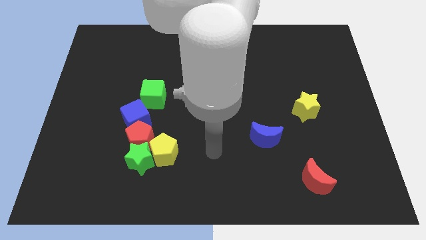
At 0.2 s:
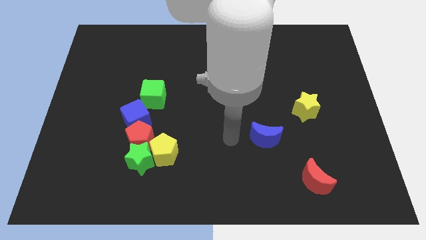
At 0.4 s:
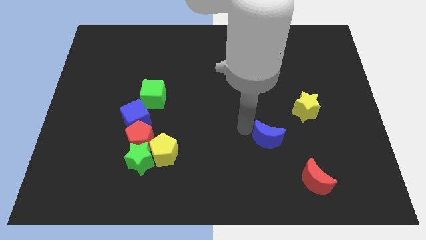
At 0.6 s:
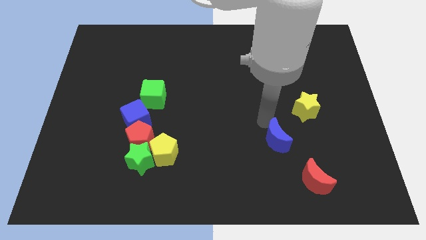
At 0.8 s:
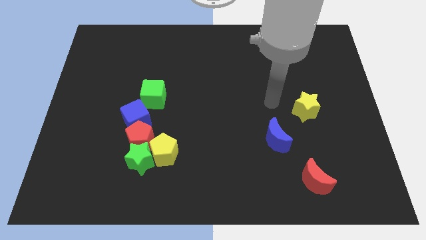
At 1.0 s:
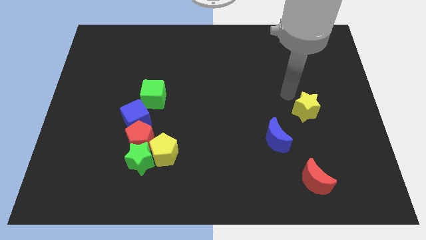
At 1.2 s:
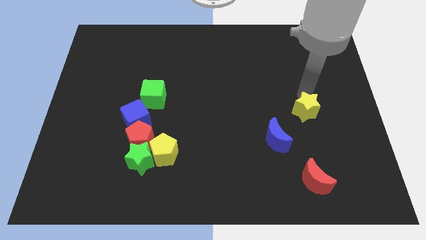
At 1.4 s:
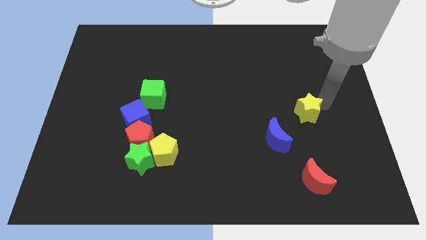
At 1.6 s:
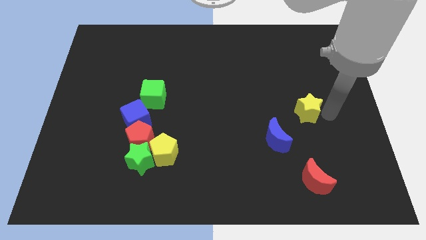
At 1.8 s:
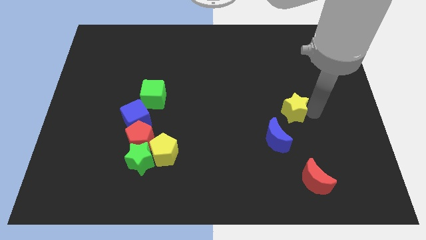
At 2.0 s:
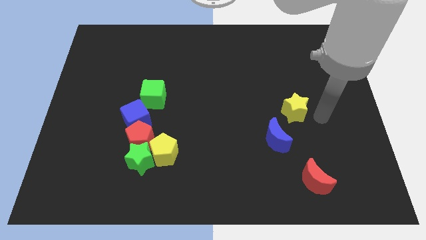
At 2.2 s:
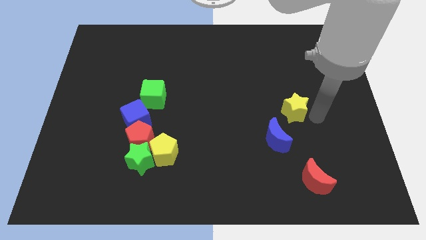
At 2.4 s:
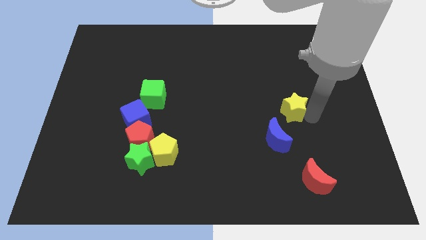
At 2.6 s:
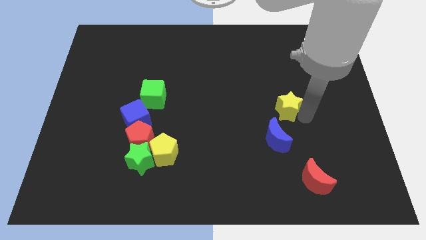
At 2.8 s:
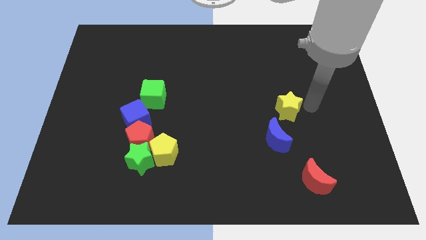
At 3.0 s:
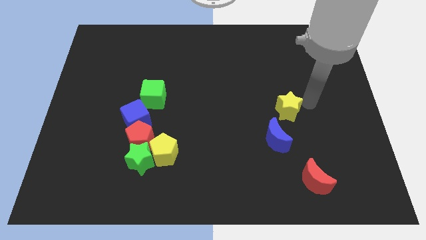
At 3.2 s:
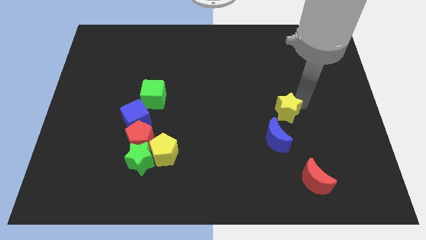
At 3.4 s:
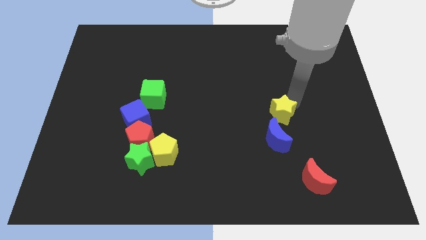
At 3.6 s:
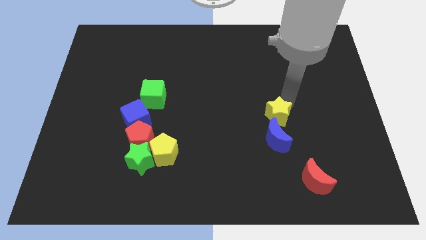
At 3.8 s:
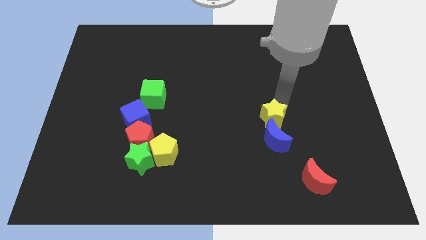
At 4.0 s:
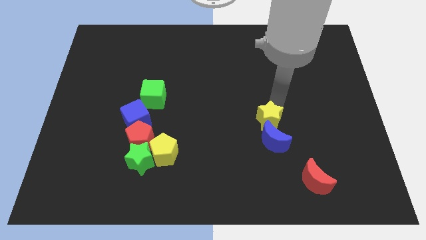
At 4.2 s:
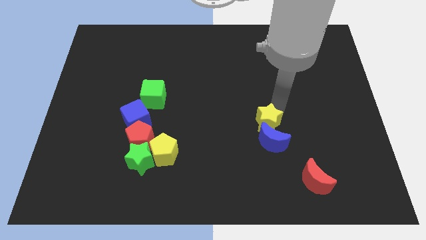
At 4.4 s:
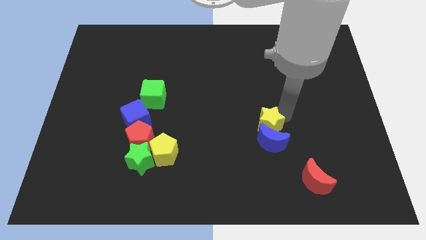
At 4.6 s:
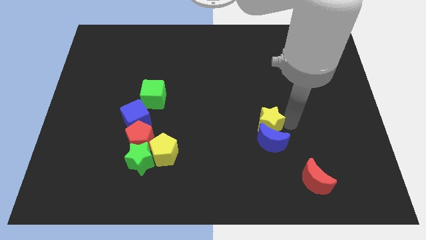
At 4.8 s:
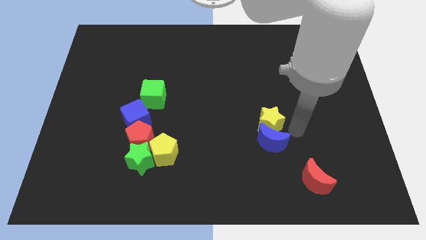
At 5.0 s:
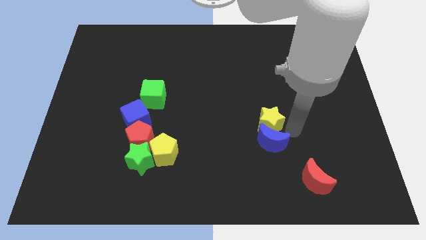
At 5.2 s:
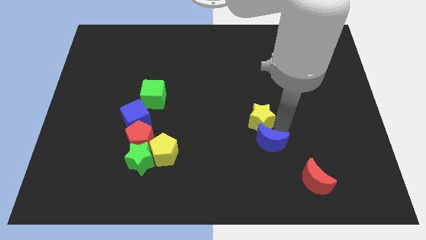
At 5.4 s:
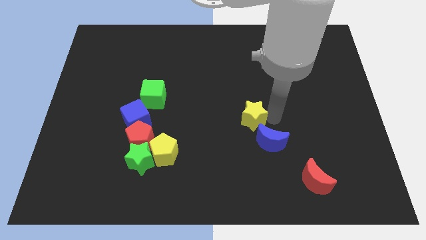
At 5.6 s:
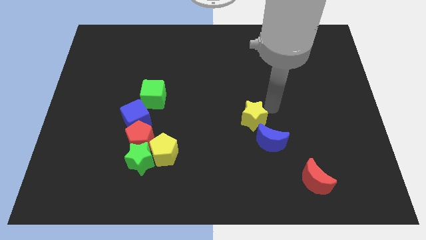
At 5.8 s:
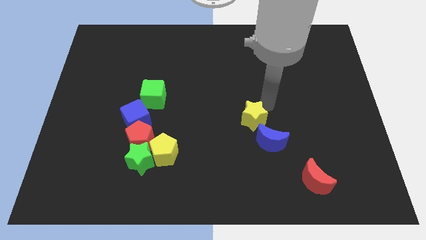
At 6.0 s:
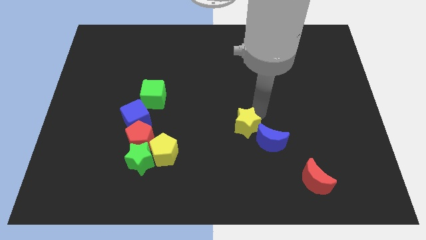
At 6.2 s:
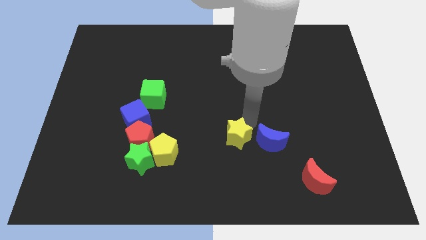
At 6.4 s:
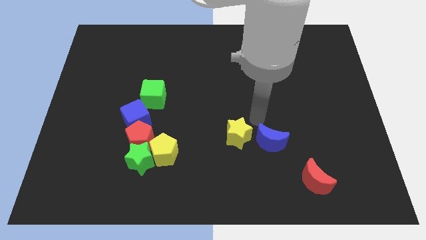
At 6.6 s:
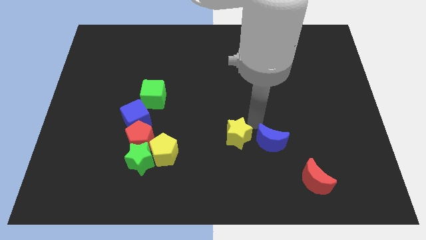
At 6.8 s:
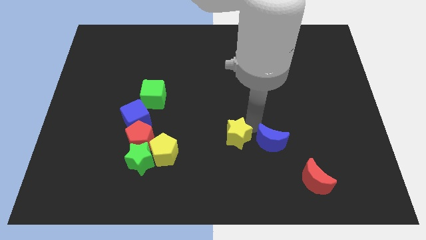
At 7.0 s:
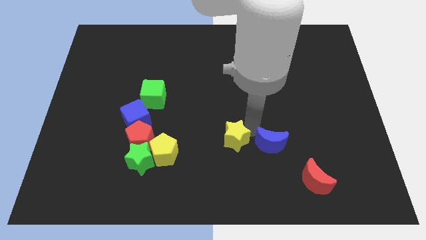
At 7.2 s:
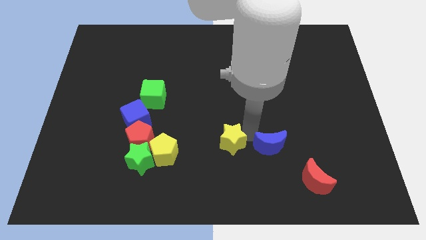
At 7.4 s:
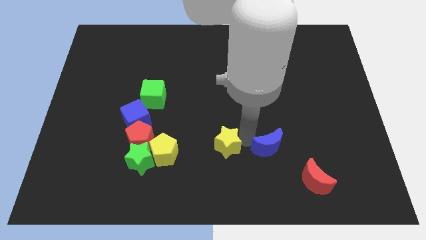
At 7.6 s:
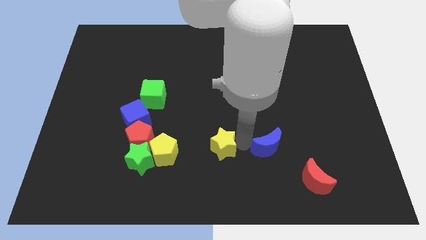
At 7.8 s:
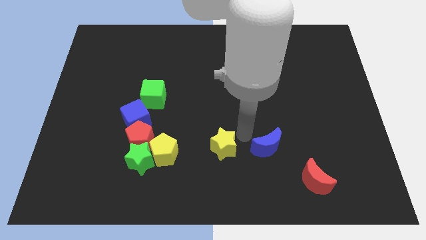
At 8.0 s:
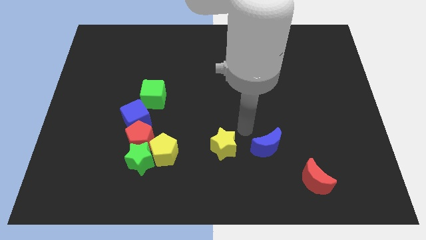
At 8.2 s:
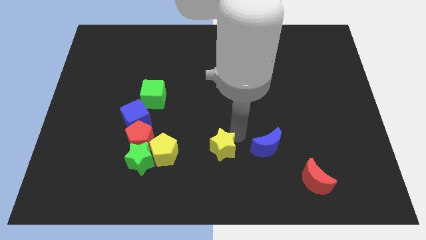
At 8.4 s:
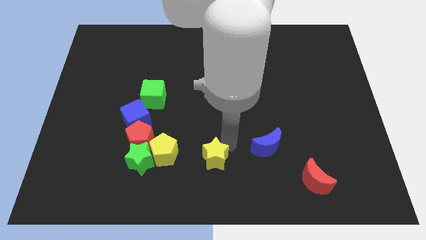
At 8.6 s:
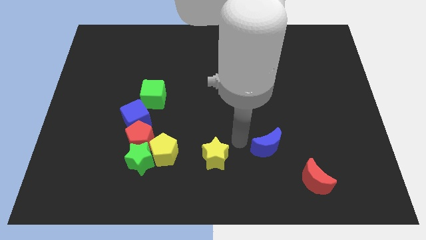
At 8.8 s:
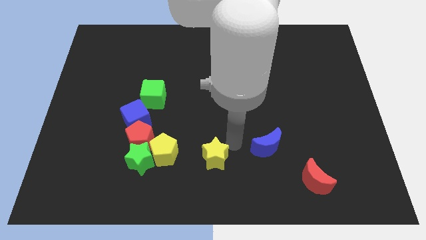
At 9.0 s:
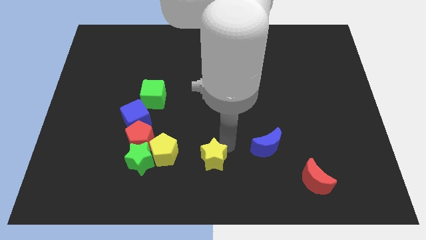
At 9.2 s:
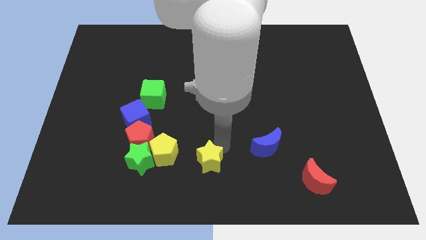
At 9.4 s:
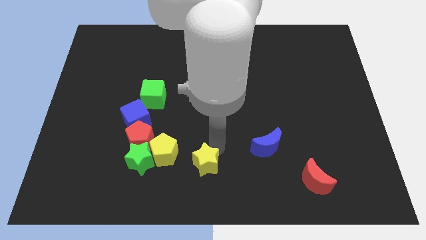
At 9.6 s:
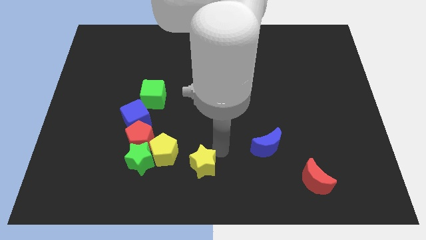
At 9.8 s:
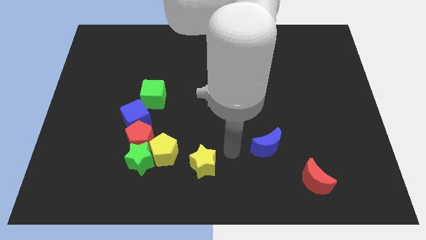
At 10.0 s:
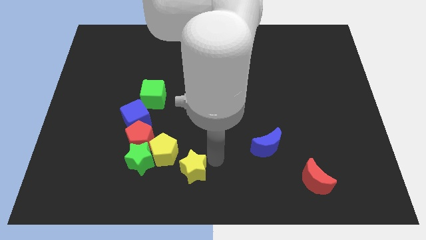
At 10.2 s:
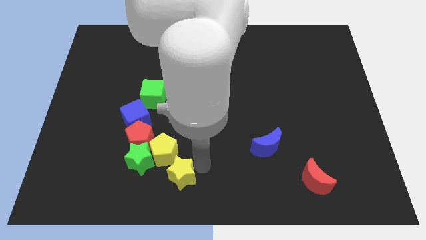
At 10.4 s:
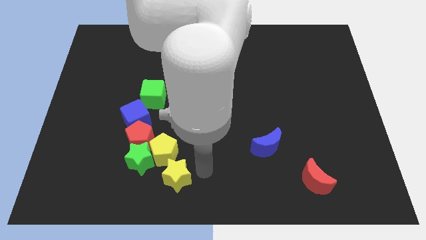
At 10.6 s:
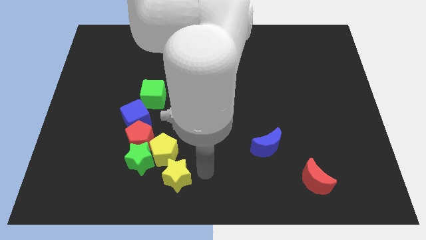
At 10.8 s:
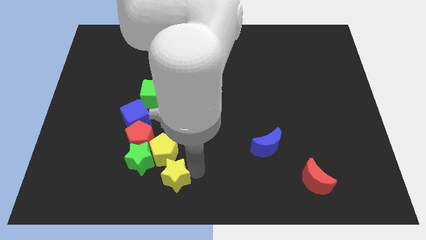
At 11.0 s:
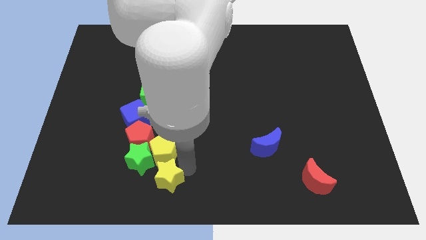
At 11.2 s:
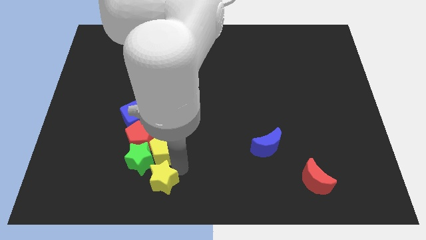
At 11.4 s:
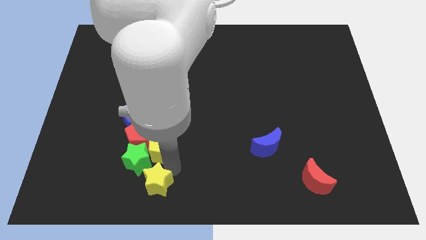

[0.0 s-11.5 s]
slide the yellow star to the bottom of the red pentagon

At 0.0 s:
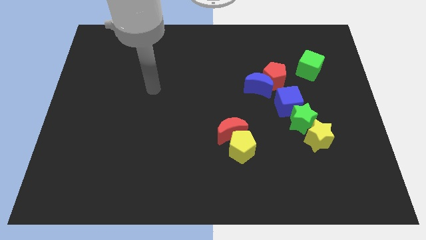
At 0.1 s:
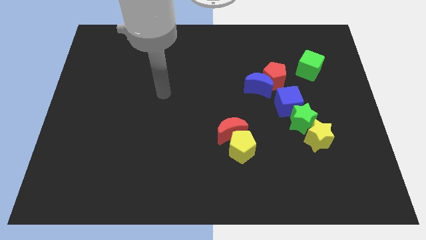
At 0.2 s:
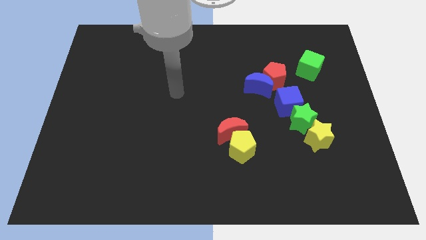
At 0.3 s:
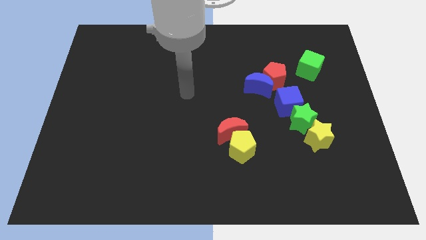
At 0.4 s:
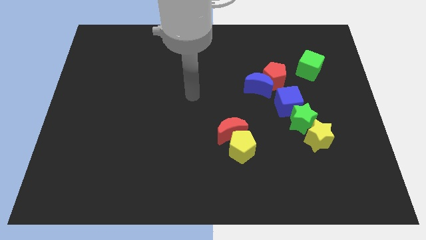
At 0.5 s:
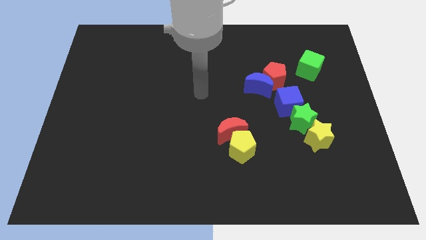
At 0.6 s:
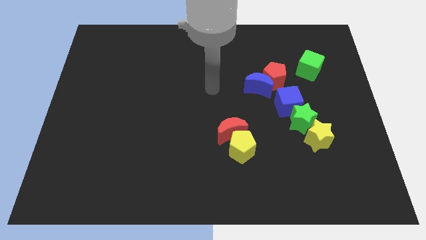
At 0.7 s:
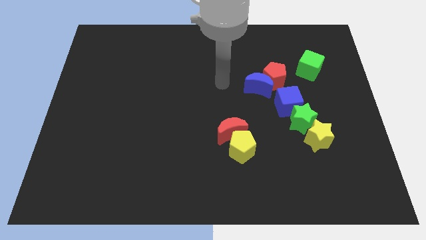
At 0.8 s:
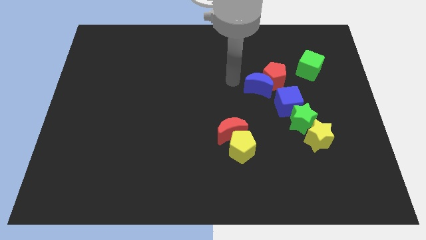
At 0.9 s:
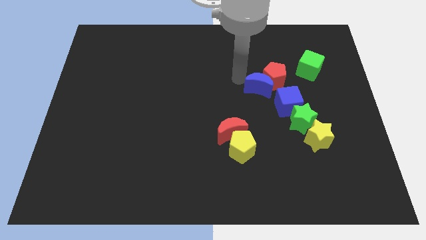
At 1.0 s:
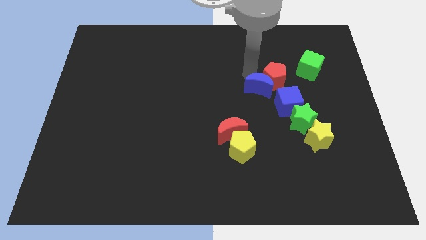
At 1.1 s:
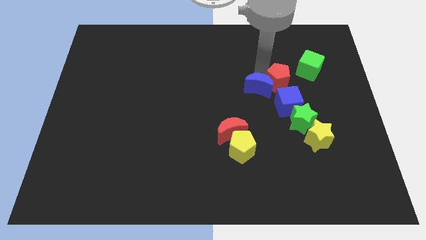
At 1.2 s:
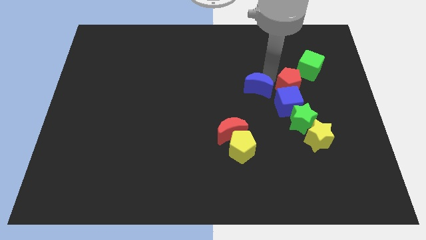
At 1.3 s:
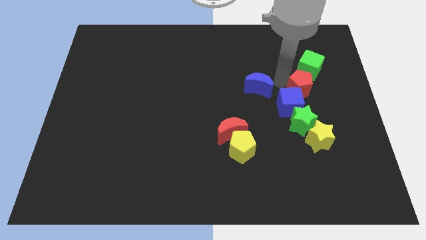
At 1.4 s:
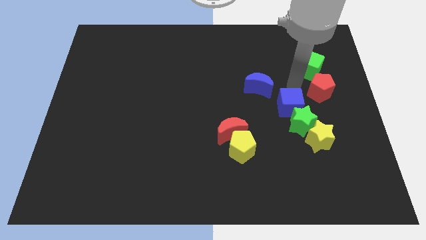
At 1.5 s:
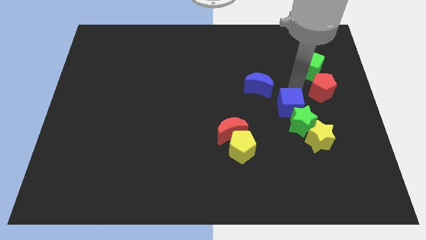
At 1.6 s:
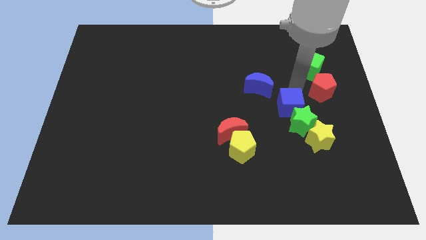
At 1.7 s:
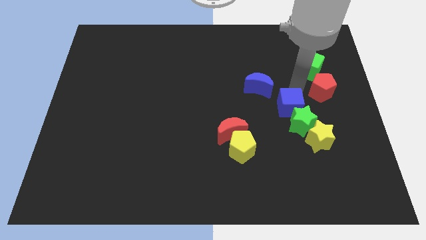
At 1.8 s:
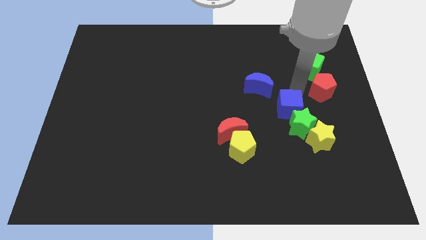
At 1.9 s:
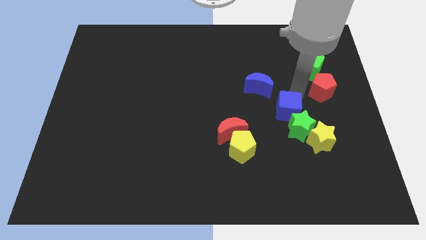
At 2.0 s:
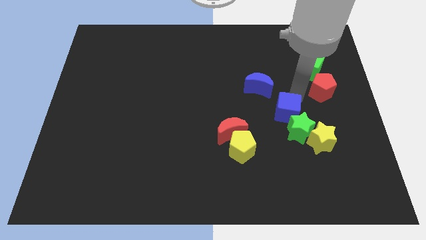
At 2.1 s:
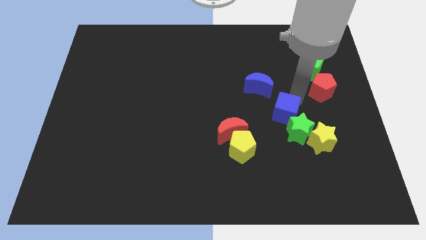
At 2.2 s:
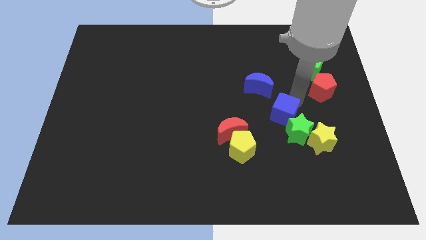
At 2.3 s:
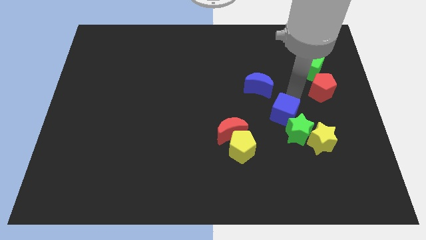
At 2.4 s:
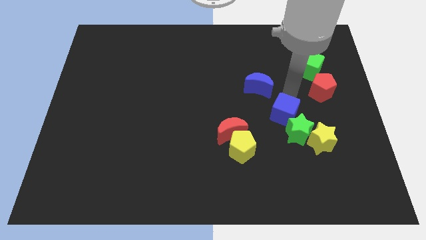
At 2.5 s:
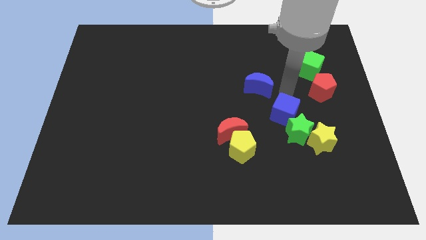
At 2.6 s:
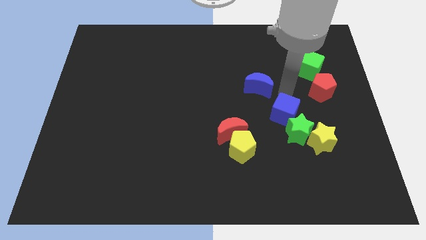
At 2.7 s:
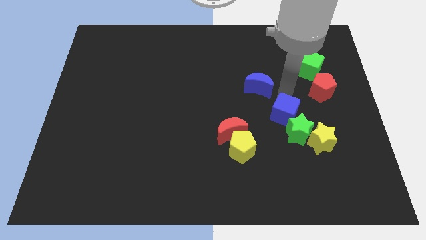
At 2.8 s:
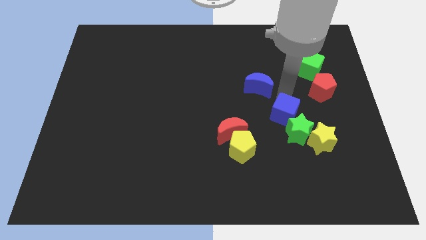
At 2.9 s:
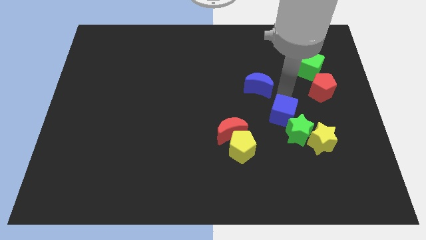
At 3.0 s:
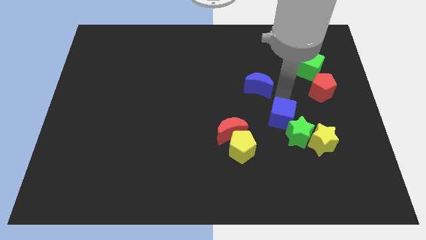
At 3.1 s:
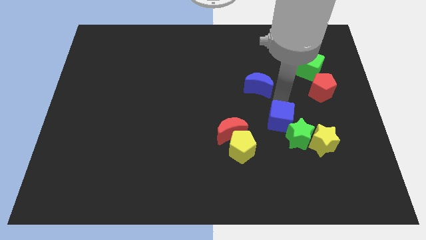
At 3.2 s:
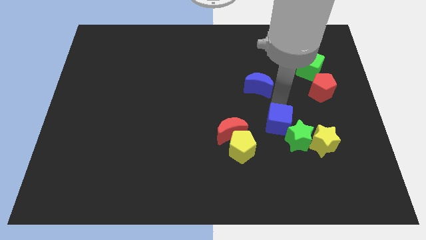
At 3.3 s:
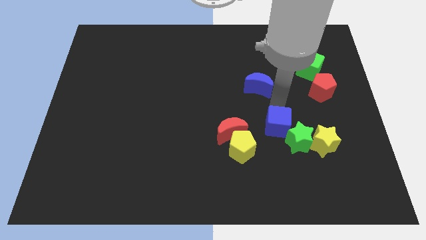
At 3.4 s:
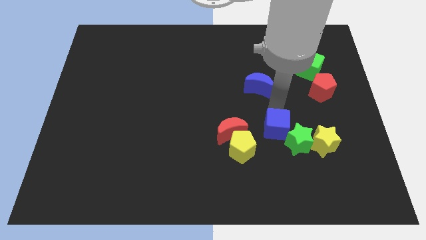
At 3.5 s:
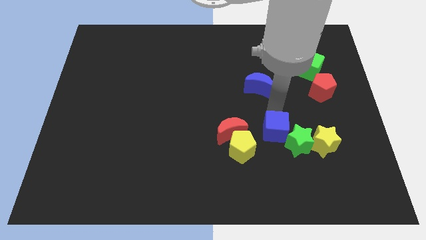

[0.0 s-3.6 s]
push the blue cube right of the yellow pentagon
